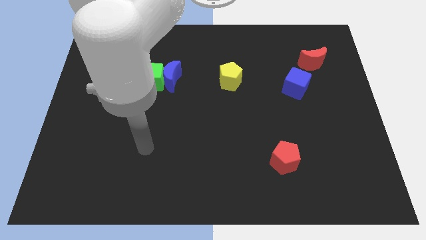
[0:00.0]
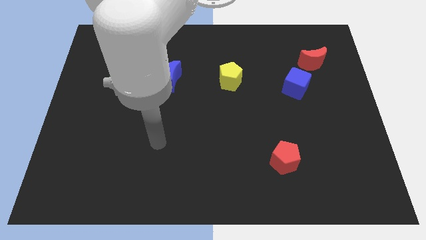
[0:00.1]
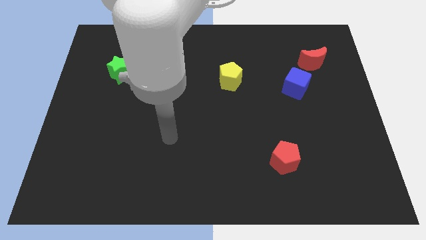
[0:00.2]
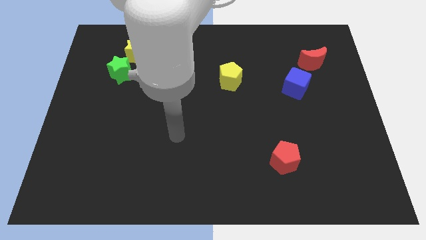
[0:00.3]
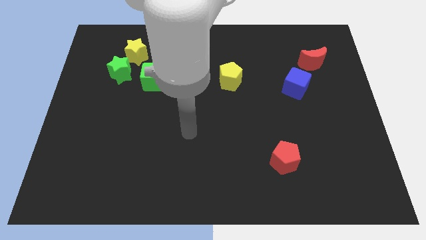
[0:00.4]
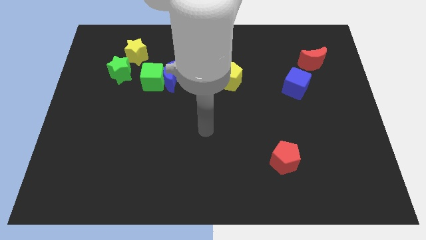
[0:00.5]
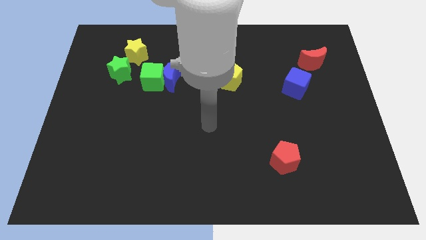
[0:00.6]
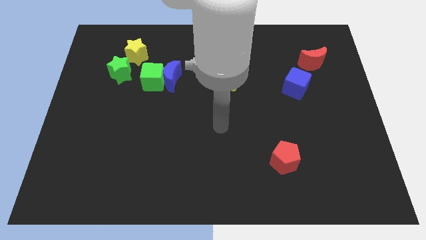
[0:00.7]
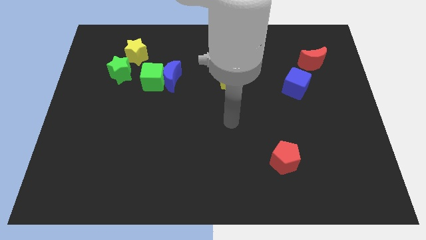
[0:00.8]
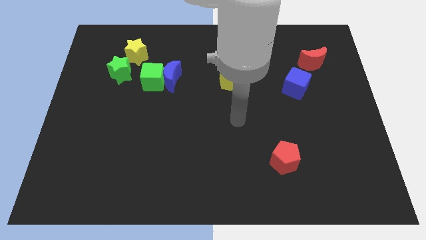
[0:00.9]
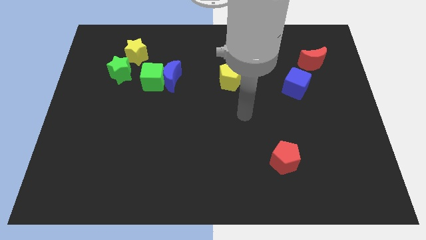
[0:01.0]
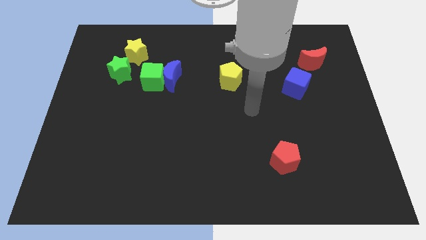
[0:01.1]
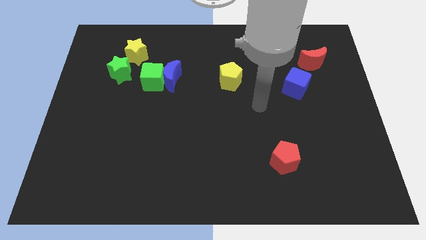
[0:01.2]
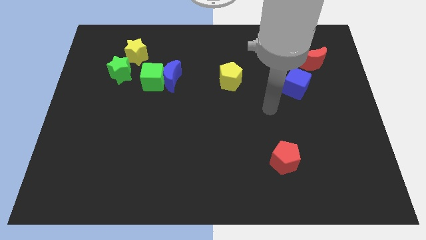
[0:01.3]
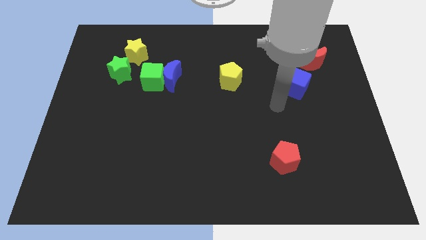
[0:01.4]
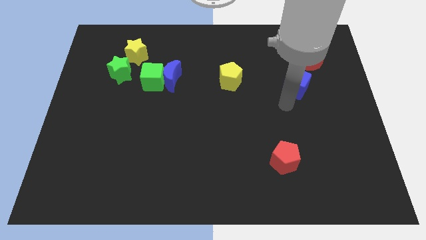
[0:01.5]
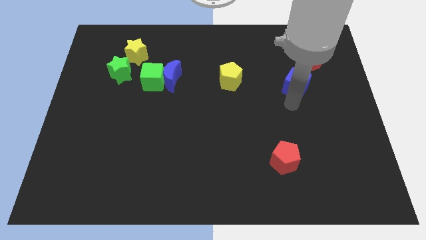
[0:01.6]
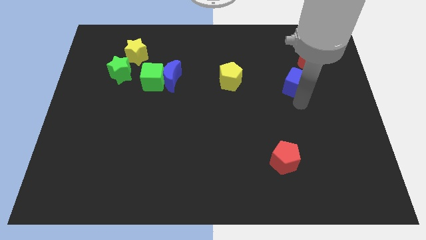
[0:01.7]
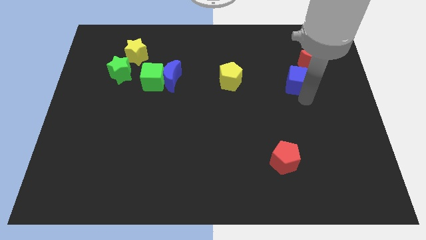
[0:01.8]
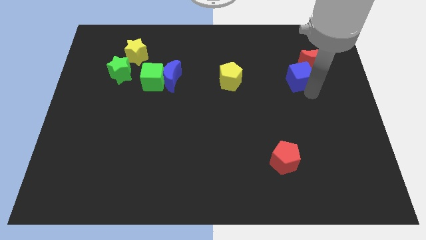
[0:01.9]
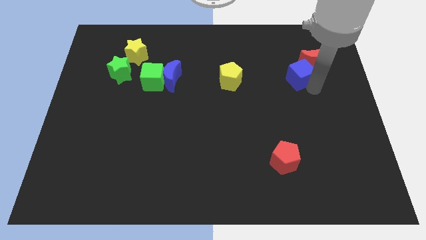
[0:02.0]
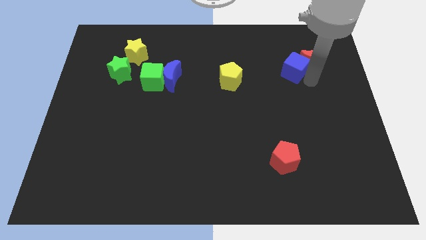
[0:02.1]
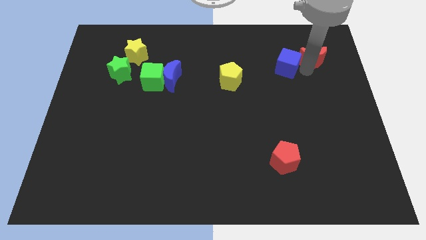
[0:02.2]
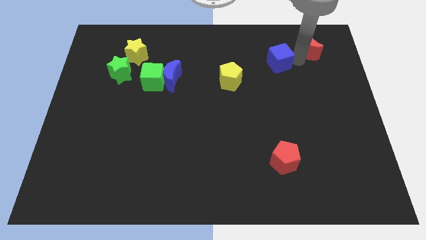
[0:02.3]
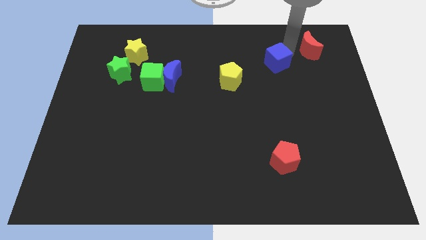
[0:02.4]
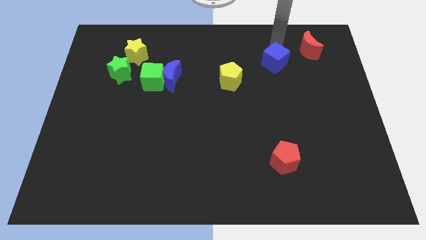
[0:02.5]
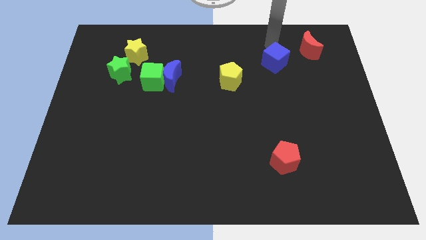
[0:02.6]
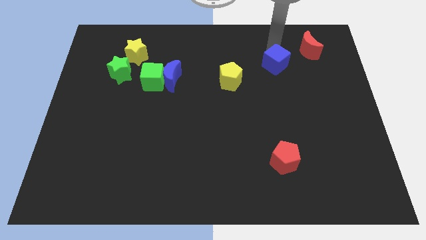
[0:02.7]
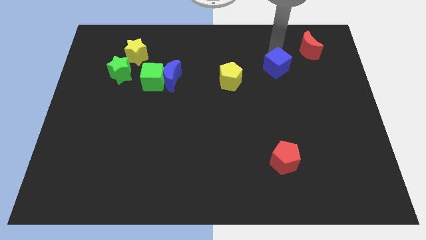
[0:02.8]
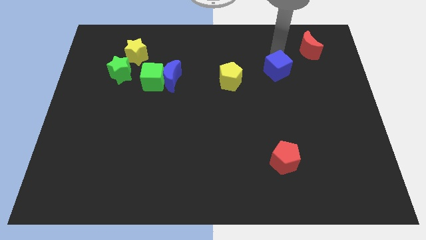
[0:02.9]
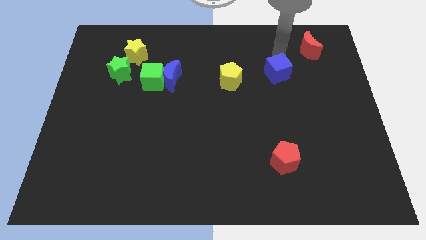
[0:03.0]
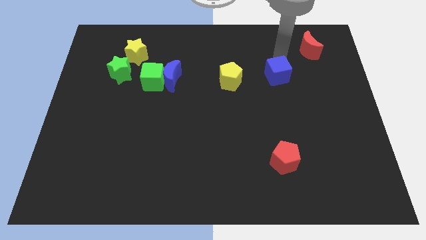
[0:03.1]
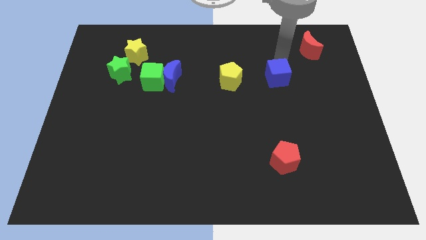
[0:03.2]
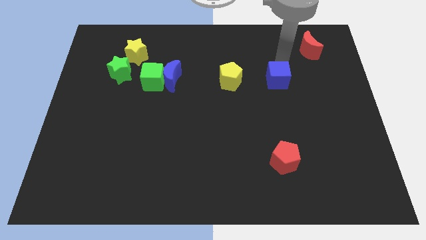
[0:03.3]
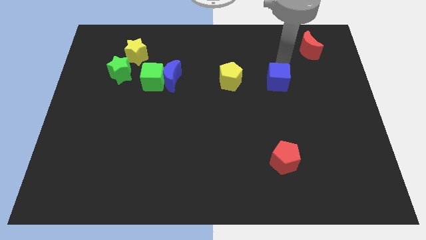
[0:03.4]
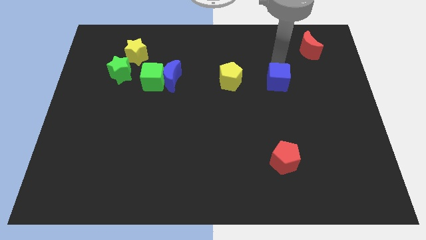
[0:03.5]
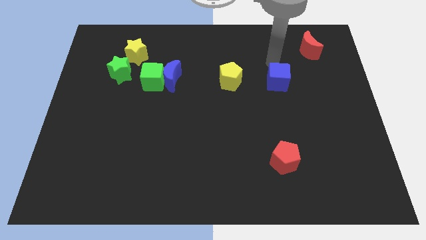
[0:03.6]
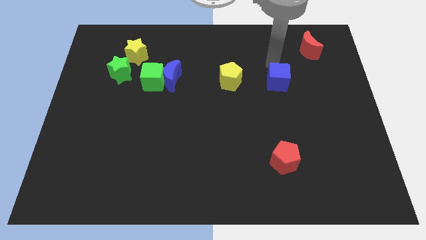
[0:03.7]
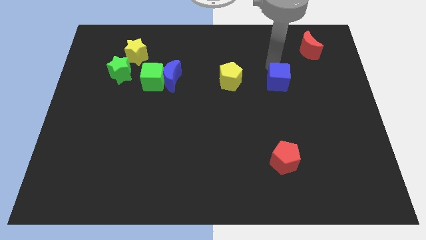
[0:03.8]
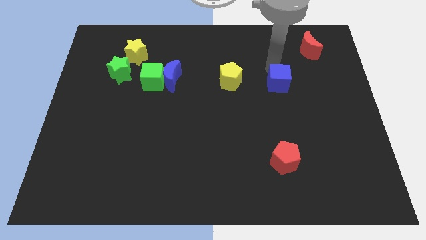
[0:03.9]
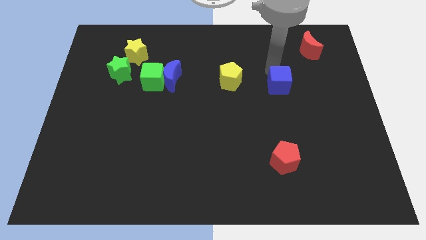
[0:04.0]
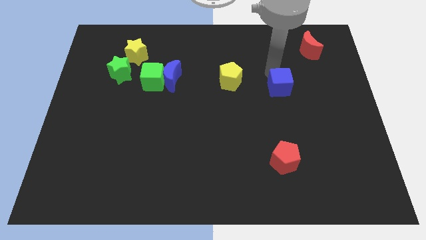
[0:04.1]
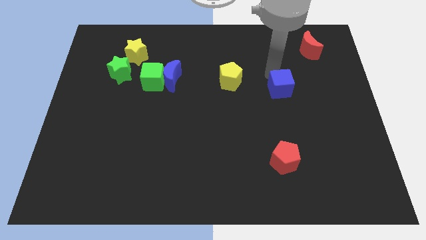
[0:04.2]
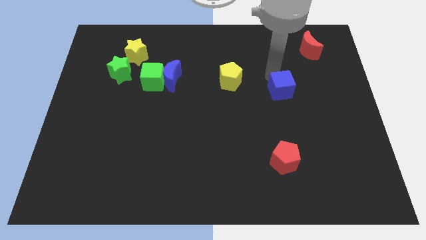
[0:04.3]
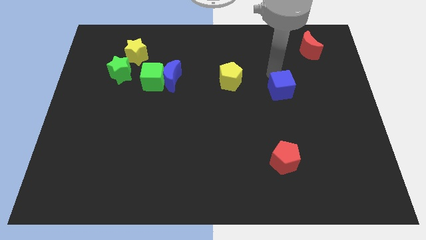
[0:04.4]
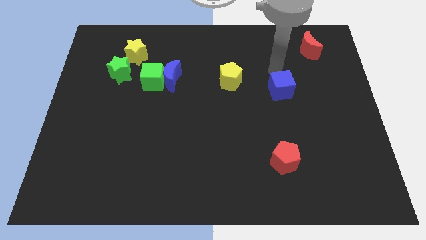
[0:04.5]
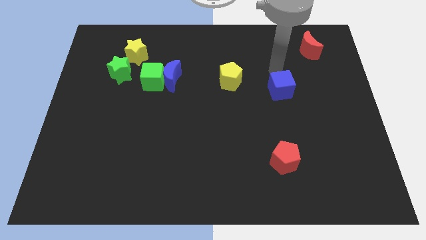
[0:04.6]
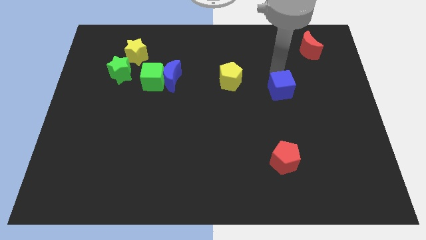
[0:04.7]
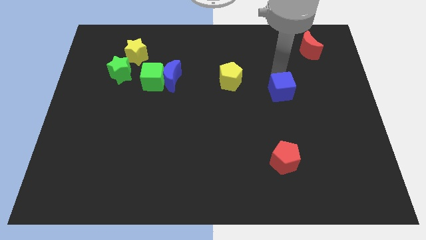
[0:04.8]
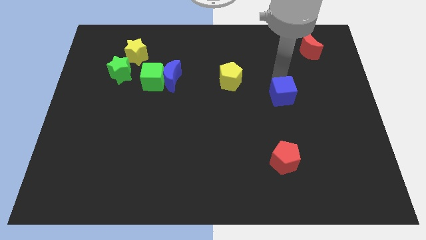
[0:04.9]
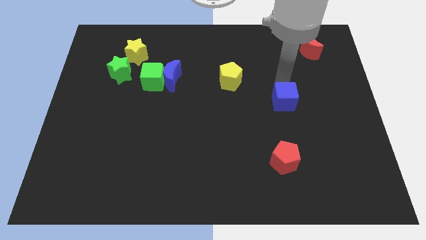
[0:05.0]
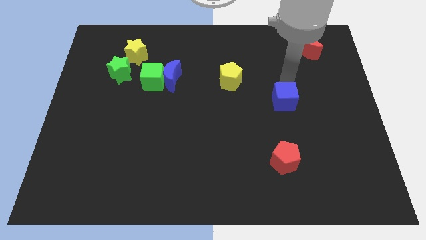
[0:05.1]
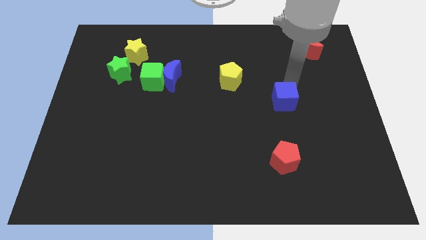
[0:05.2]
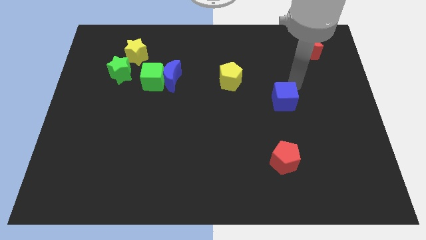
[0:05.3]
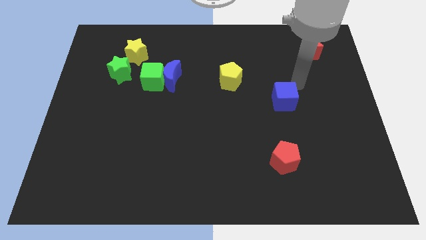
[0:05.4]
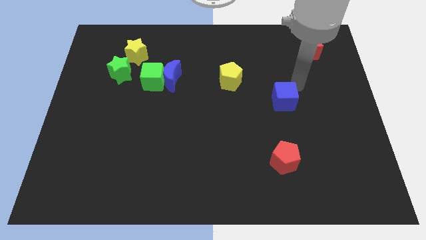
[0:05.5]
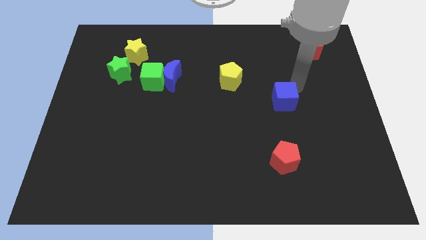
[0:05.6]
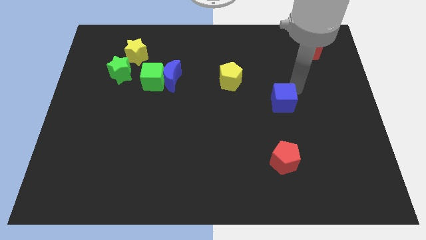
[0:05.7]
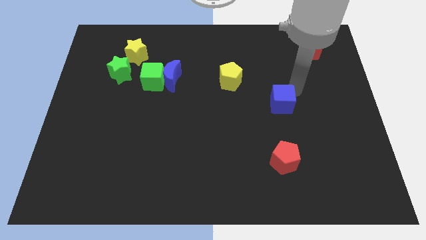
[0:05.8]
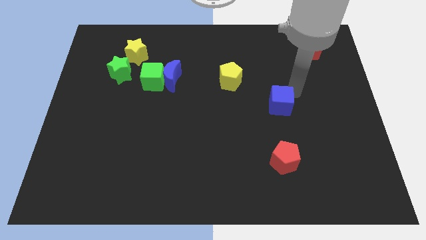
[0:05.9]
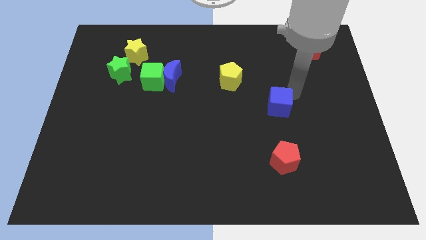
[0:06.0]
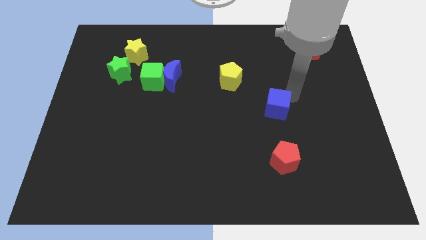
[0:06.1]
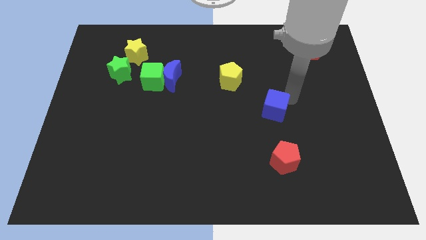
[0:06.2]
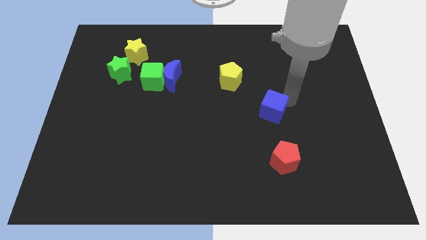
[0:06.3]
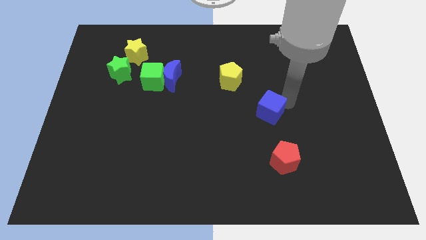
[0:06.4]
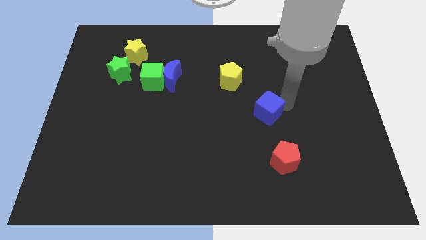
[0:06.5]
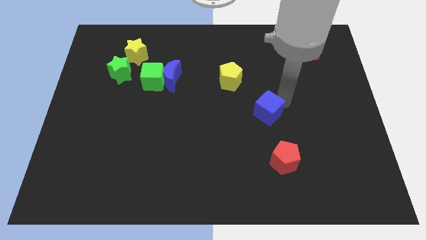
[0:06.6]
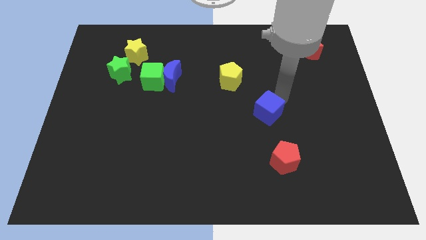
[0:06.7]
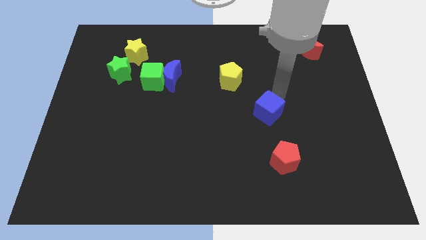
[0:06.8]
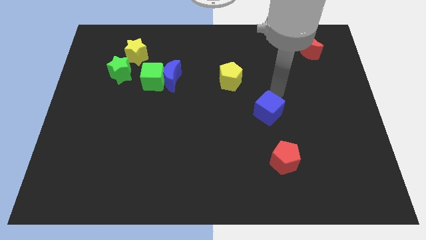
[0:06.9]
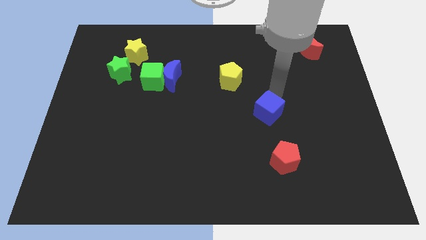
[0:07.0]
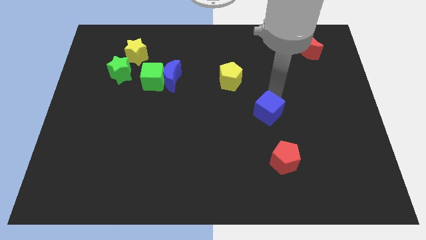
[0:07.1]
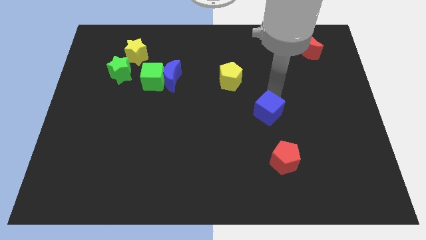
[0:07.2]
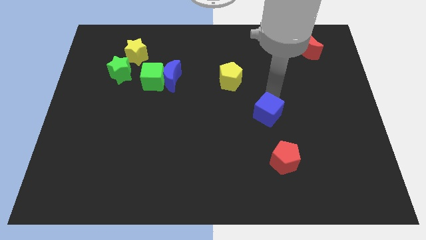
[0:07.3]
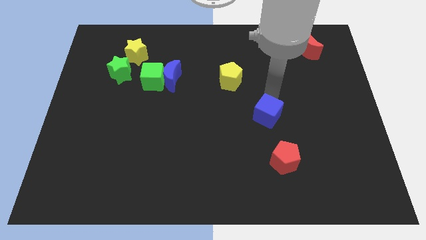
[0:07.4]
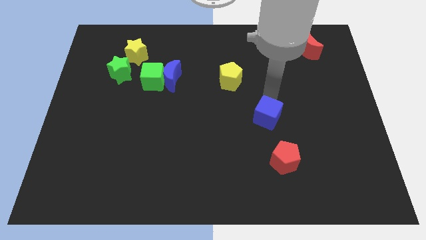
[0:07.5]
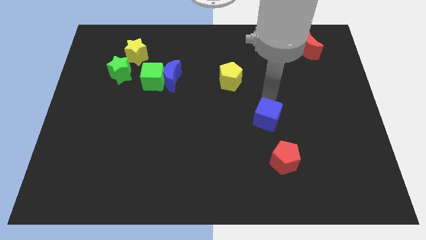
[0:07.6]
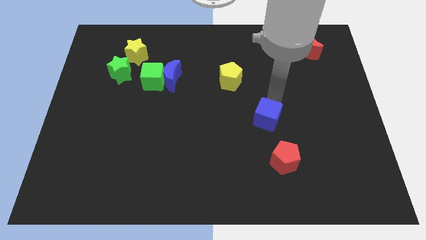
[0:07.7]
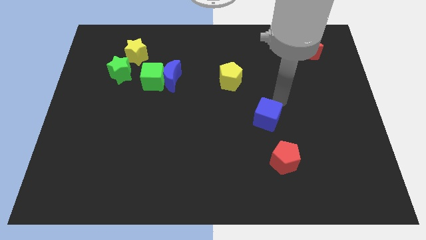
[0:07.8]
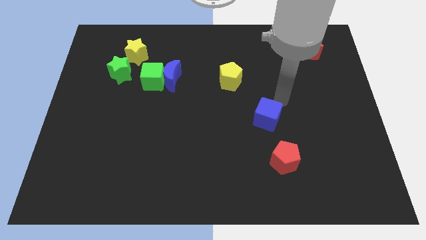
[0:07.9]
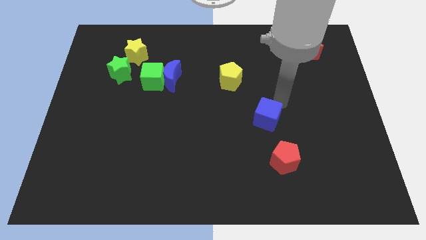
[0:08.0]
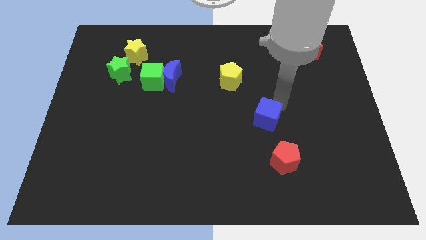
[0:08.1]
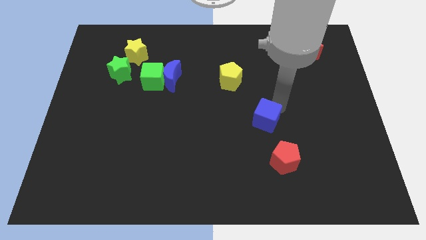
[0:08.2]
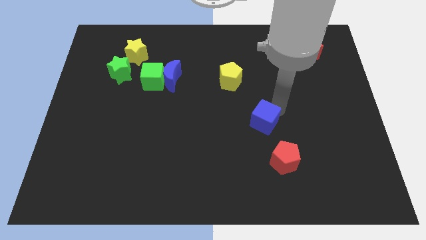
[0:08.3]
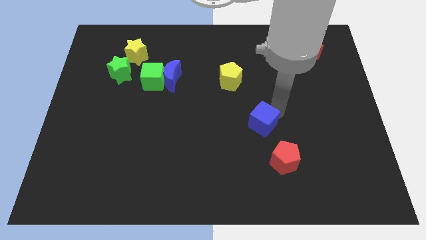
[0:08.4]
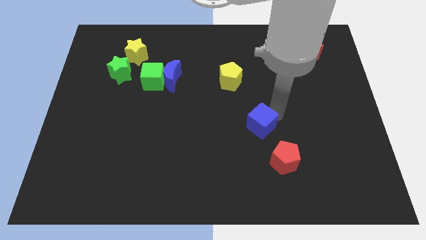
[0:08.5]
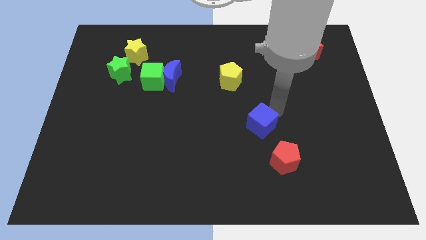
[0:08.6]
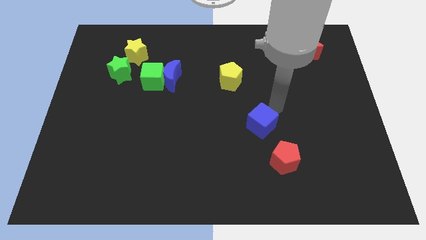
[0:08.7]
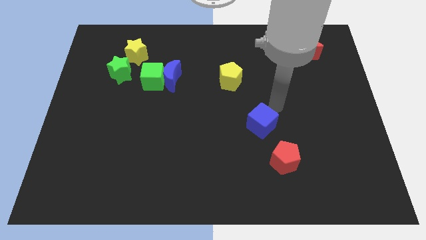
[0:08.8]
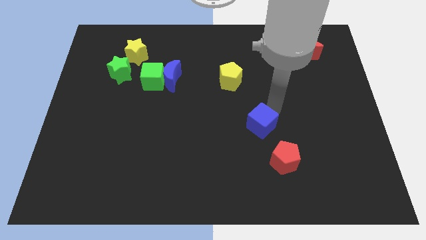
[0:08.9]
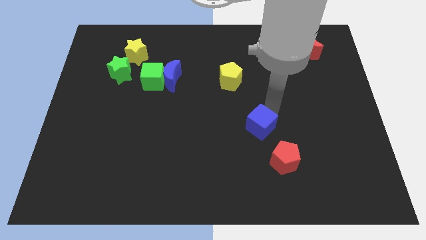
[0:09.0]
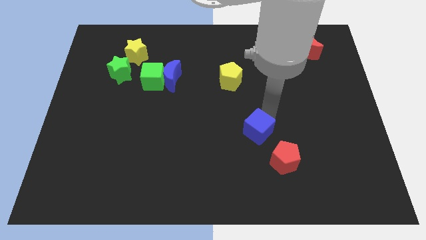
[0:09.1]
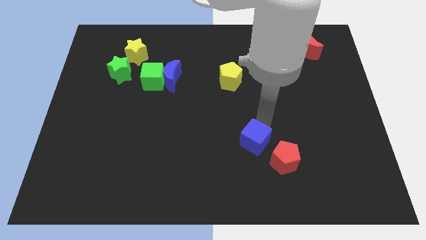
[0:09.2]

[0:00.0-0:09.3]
push the blue cube just left of the red pentagon
